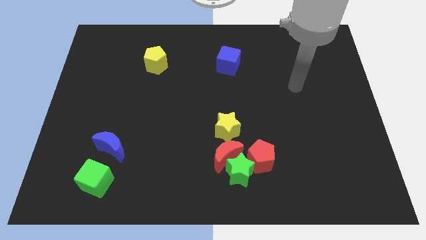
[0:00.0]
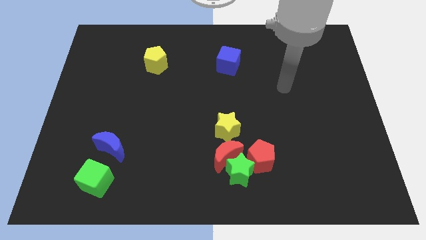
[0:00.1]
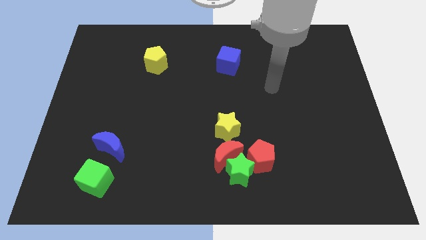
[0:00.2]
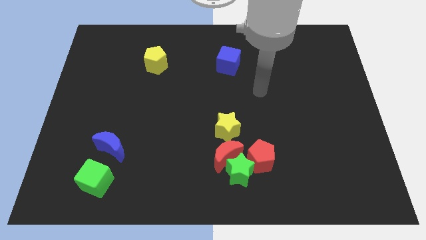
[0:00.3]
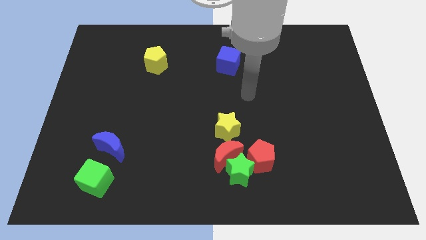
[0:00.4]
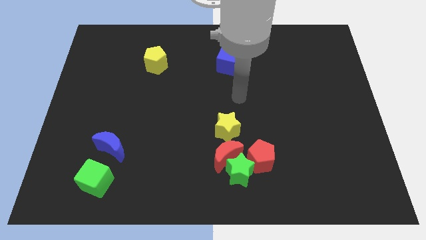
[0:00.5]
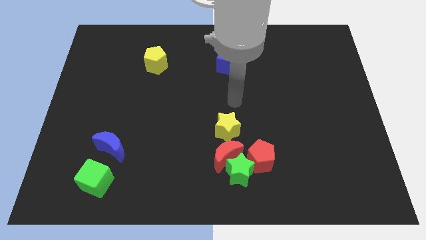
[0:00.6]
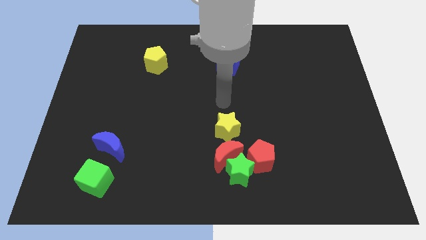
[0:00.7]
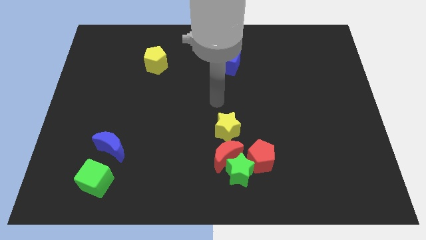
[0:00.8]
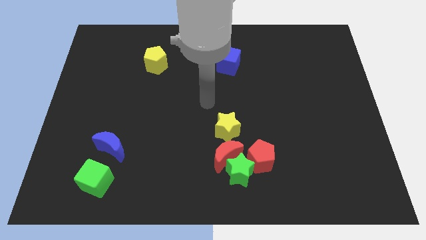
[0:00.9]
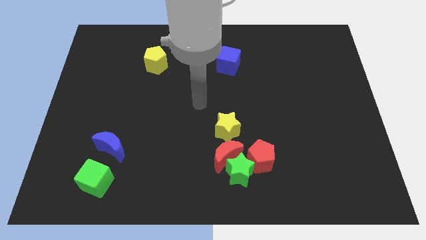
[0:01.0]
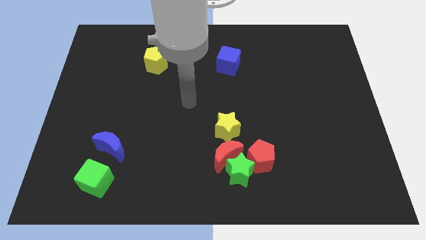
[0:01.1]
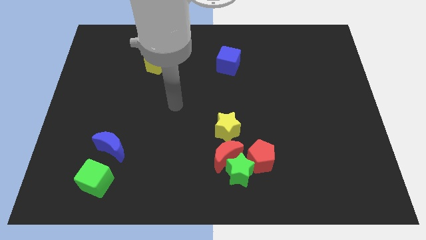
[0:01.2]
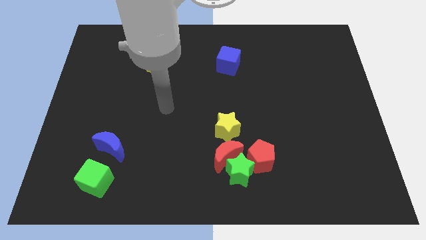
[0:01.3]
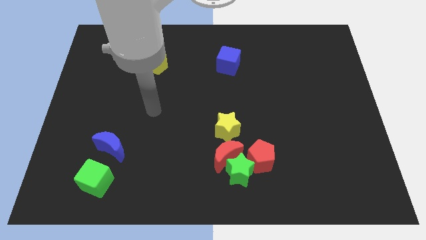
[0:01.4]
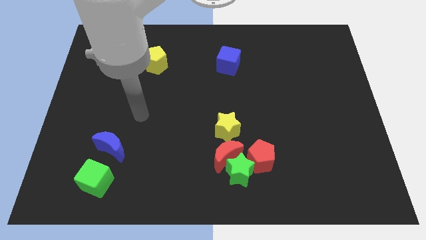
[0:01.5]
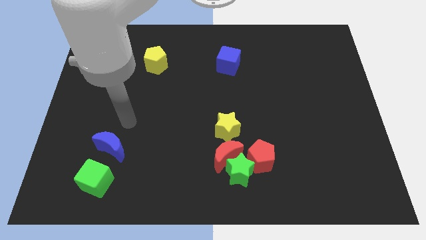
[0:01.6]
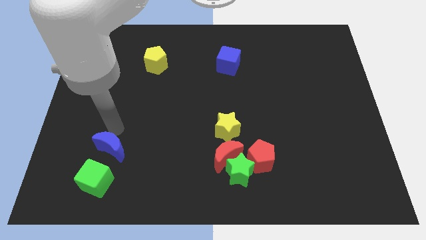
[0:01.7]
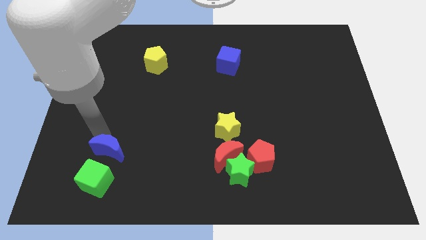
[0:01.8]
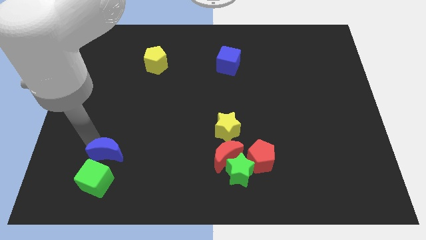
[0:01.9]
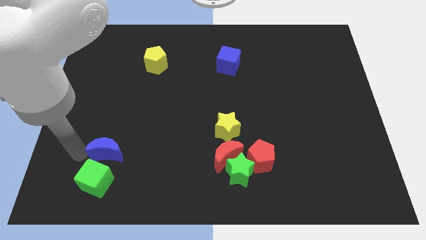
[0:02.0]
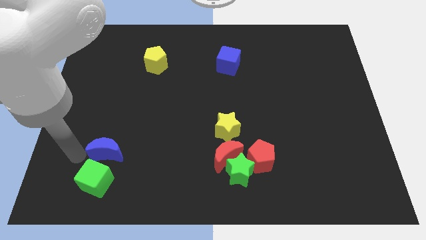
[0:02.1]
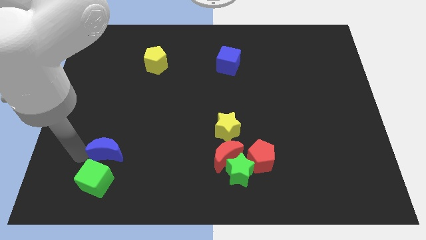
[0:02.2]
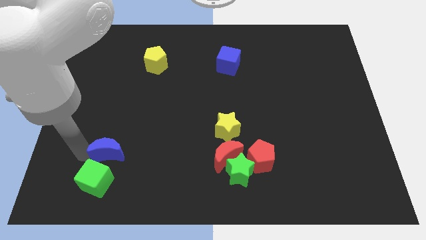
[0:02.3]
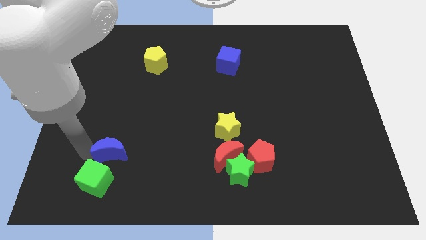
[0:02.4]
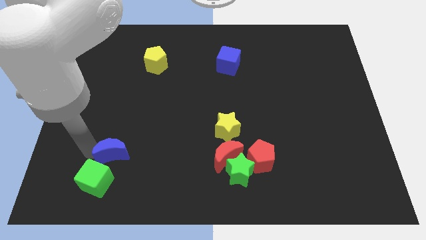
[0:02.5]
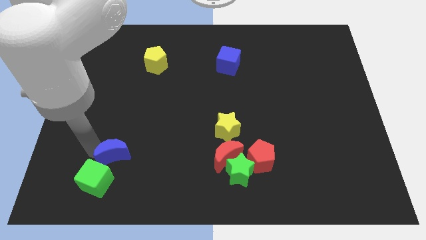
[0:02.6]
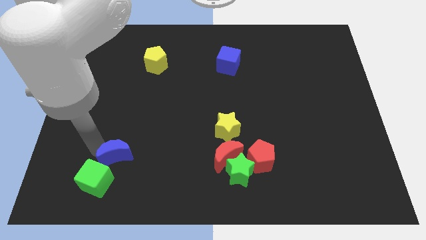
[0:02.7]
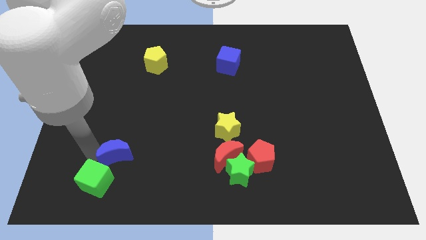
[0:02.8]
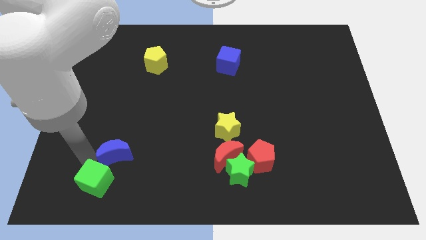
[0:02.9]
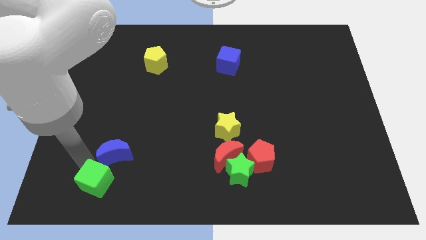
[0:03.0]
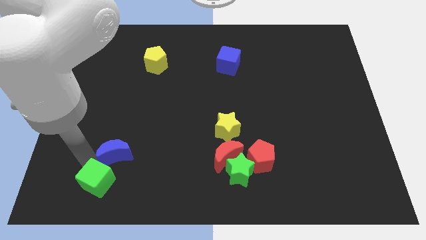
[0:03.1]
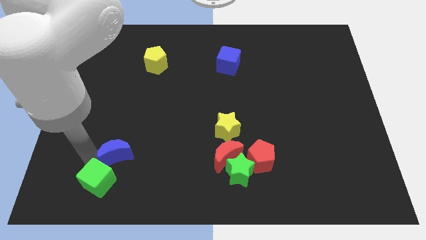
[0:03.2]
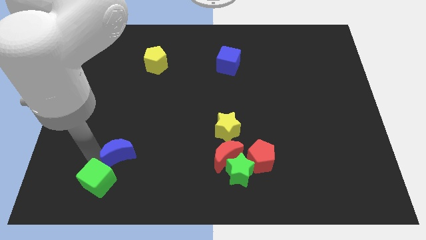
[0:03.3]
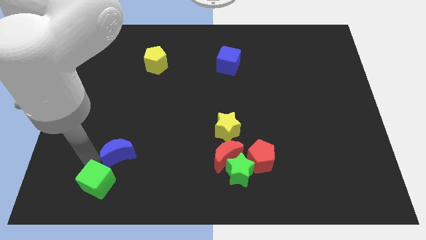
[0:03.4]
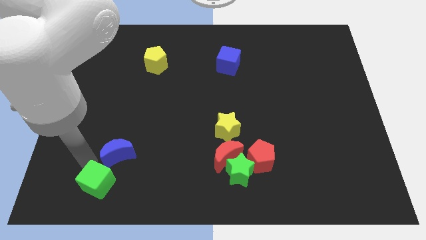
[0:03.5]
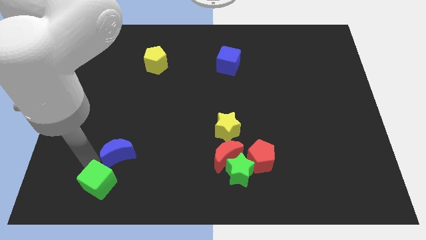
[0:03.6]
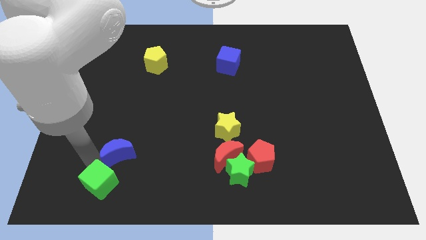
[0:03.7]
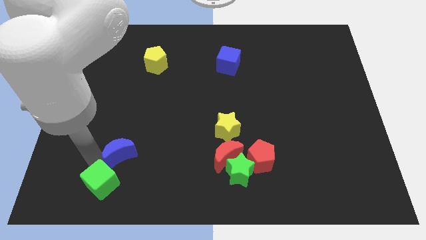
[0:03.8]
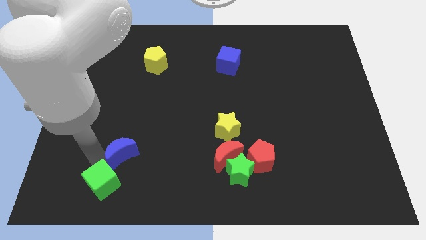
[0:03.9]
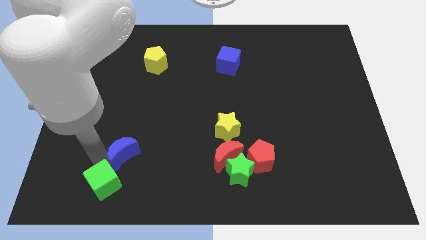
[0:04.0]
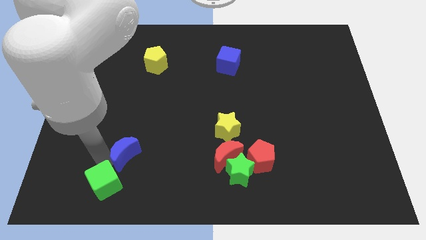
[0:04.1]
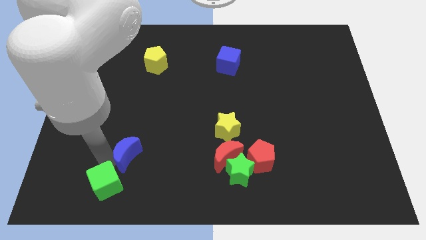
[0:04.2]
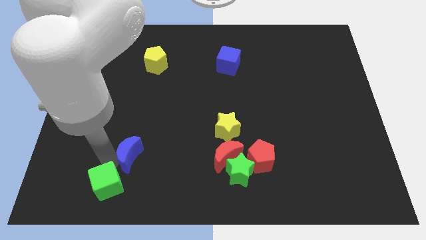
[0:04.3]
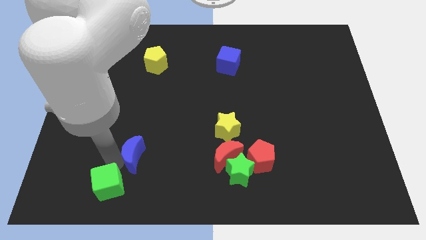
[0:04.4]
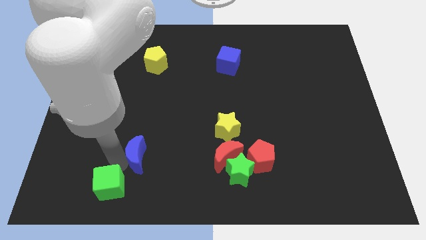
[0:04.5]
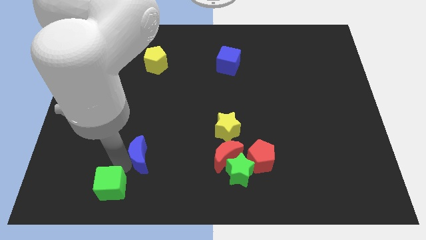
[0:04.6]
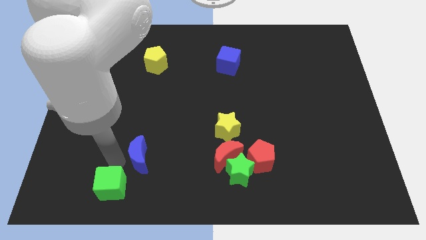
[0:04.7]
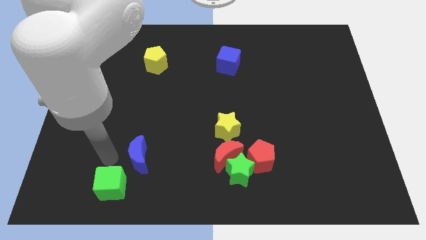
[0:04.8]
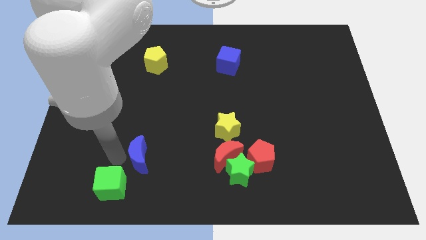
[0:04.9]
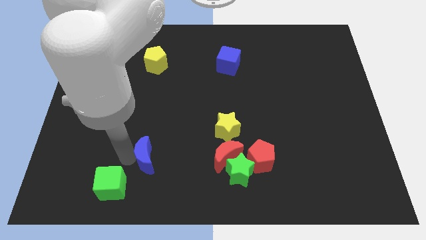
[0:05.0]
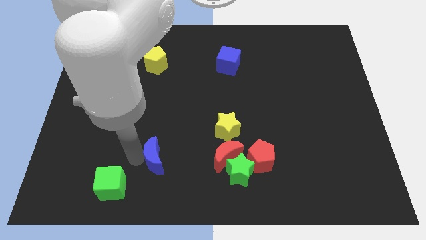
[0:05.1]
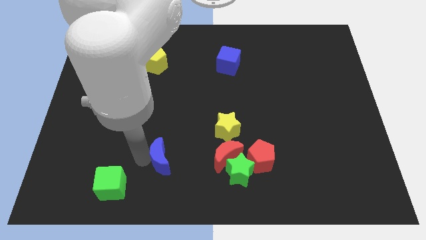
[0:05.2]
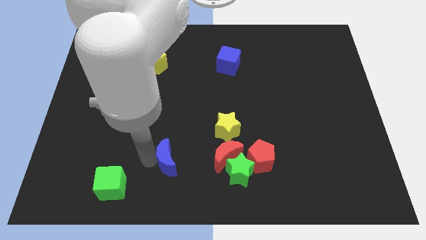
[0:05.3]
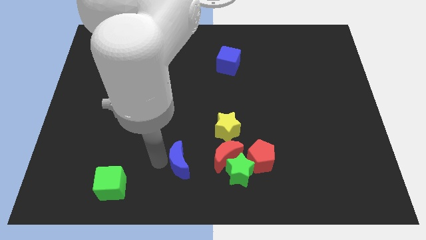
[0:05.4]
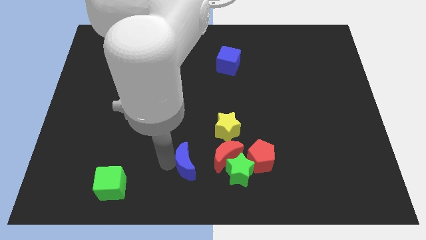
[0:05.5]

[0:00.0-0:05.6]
push the blue moon left of the red pentagon

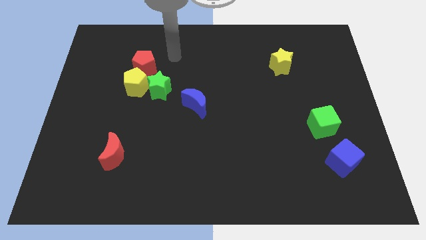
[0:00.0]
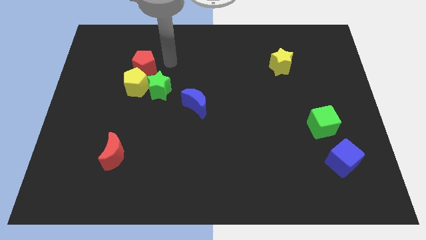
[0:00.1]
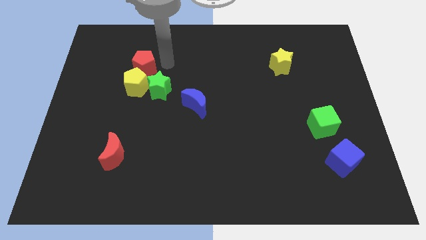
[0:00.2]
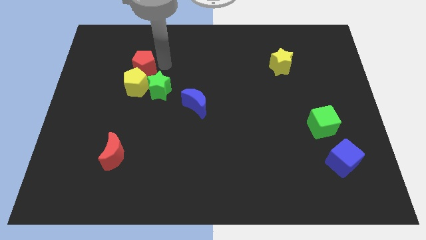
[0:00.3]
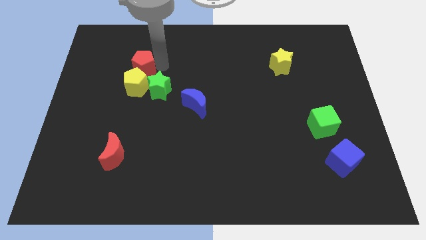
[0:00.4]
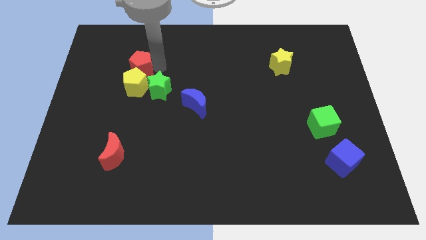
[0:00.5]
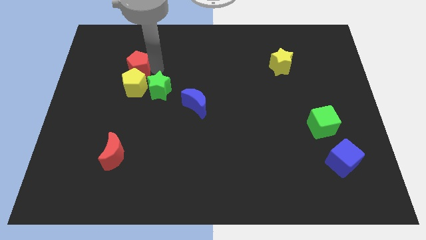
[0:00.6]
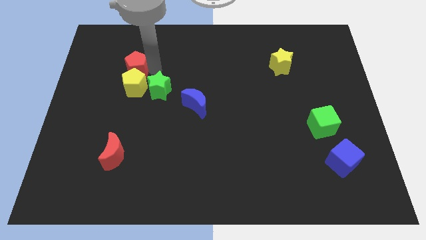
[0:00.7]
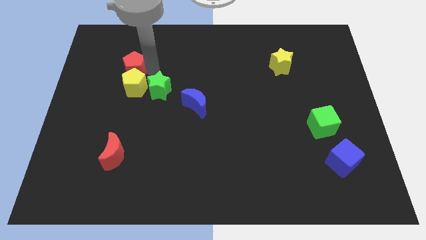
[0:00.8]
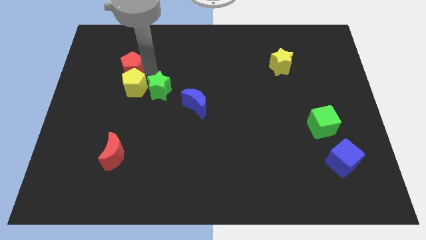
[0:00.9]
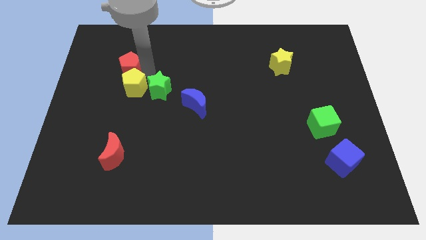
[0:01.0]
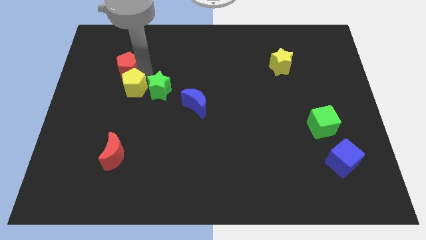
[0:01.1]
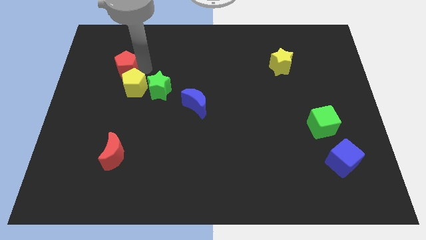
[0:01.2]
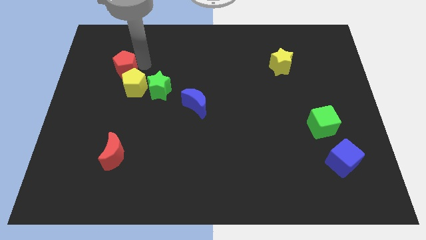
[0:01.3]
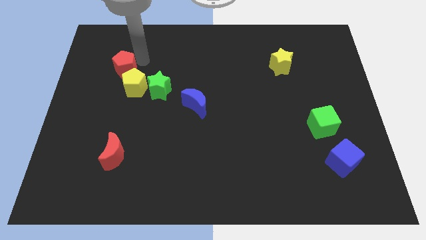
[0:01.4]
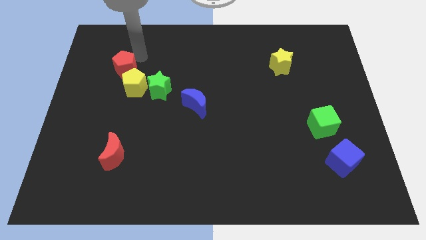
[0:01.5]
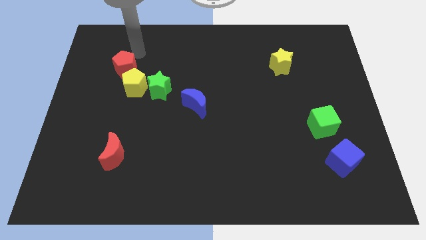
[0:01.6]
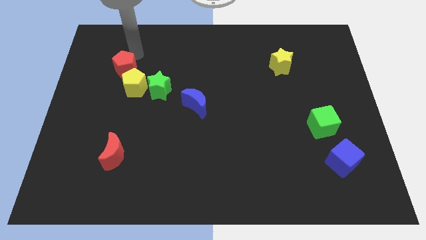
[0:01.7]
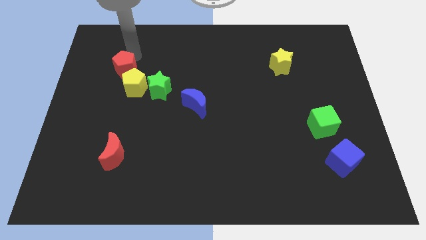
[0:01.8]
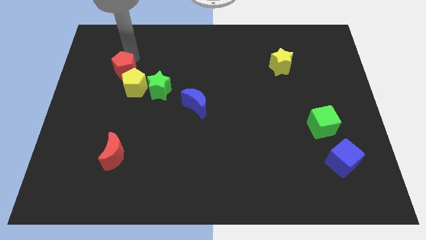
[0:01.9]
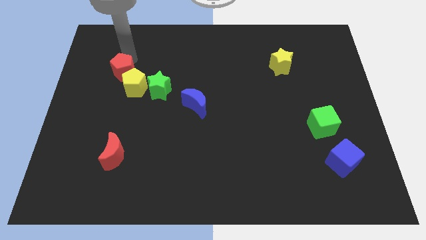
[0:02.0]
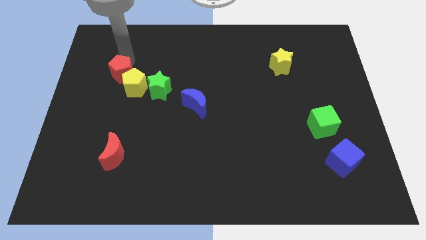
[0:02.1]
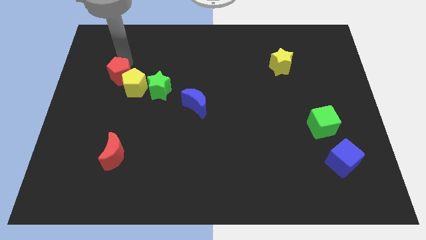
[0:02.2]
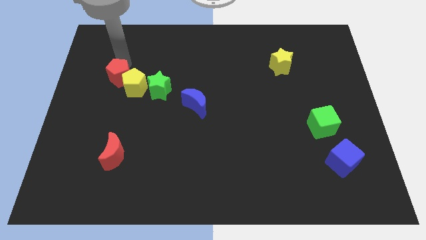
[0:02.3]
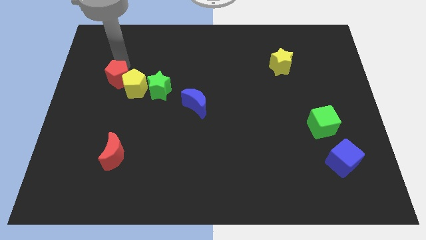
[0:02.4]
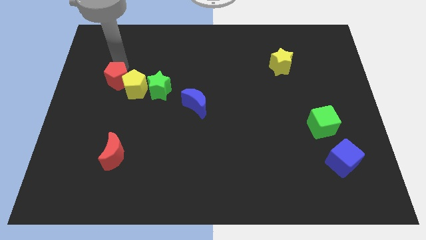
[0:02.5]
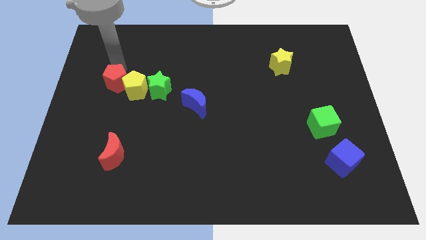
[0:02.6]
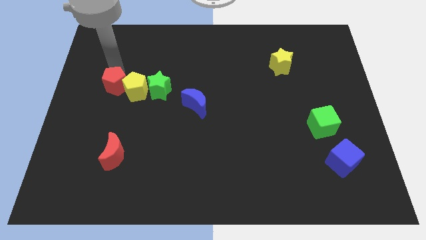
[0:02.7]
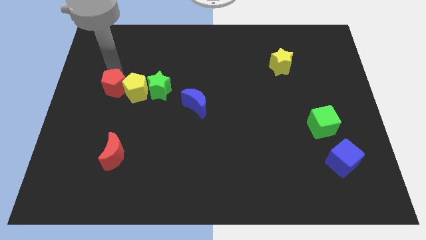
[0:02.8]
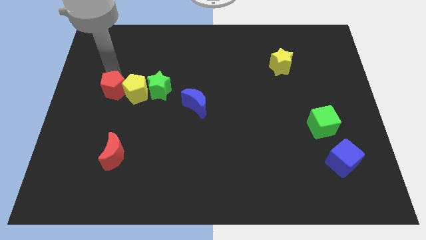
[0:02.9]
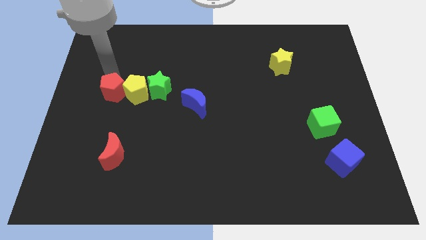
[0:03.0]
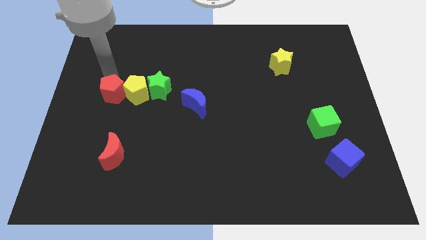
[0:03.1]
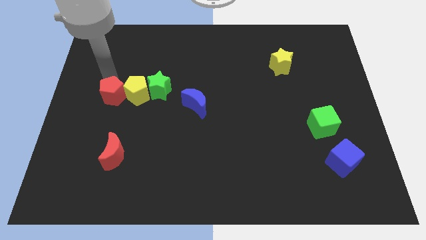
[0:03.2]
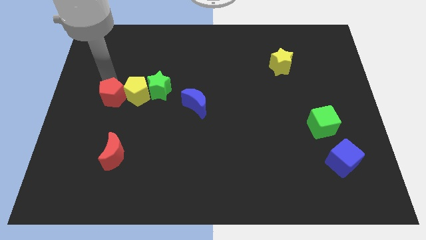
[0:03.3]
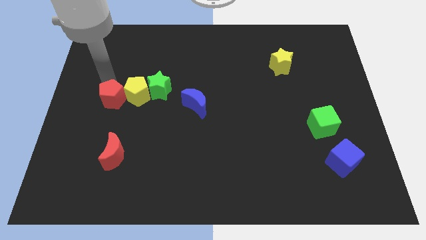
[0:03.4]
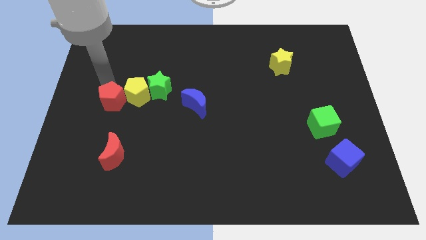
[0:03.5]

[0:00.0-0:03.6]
push the red pentagon to the top of the red moon
